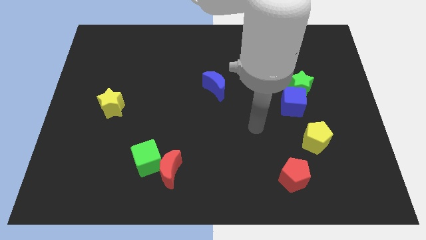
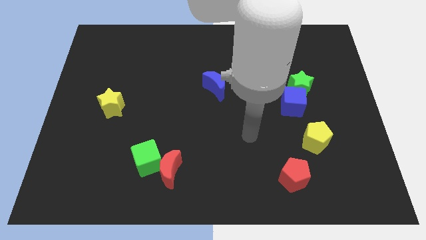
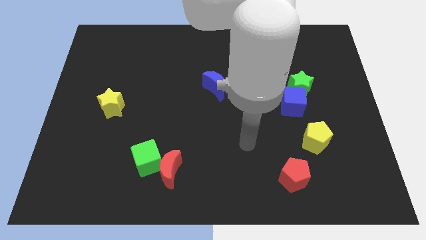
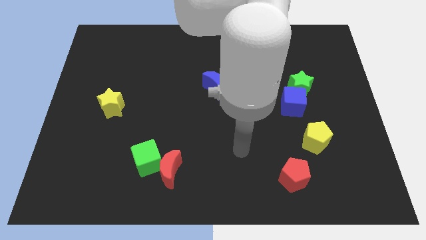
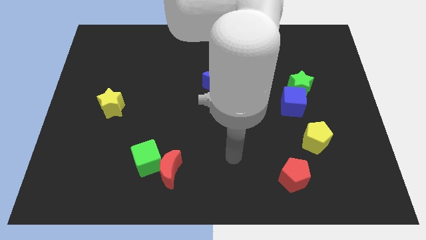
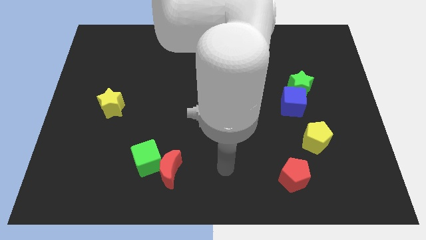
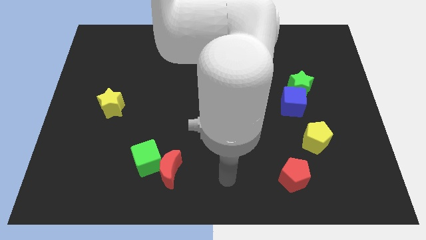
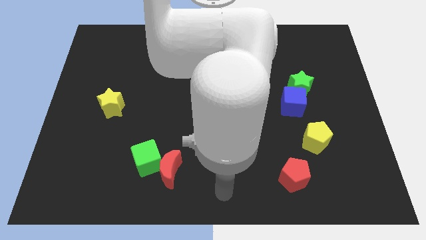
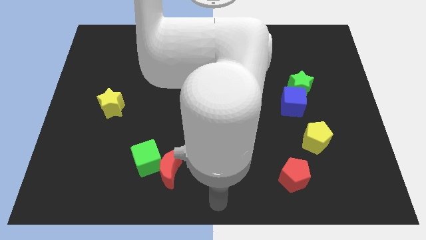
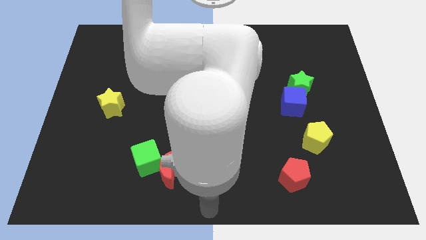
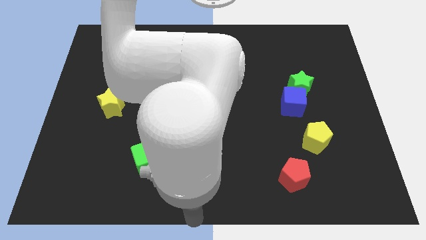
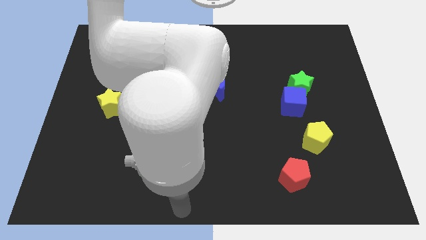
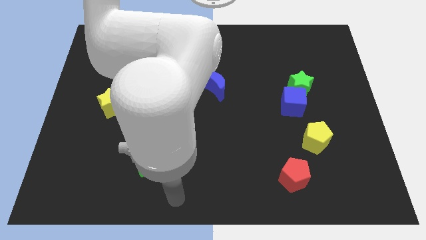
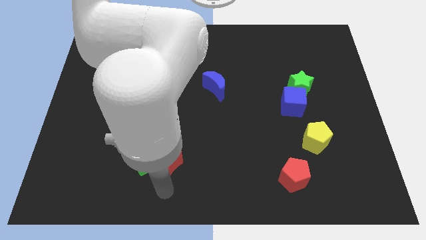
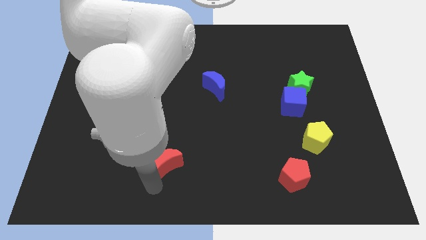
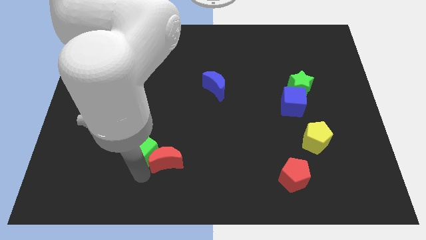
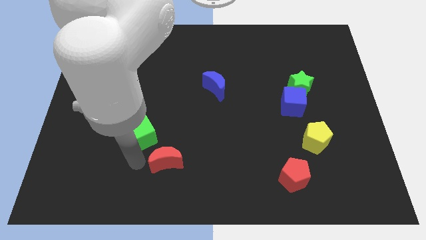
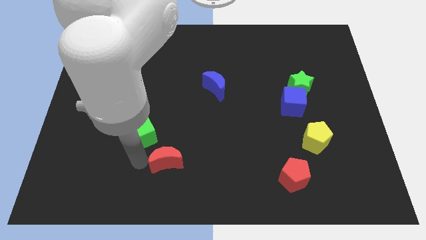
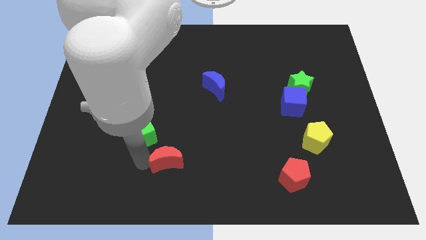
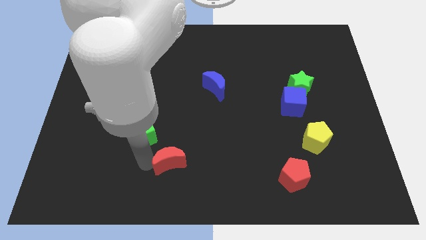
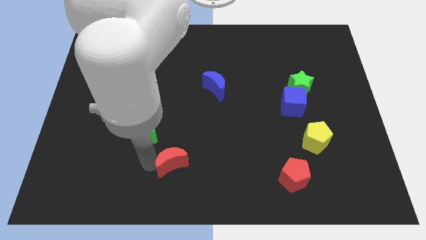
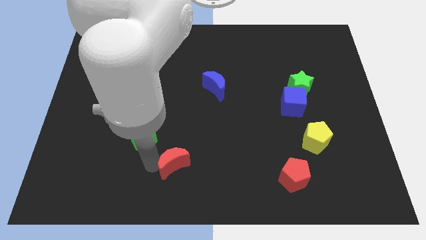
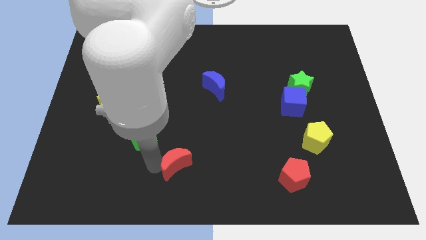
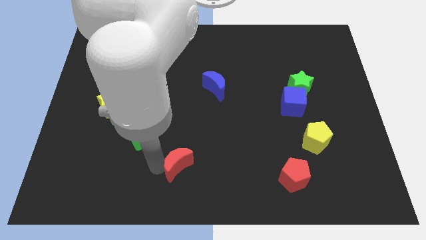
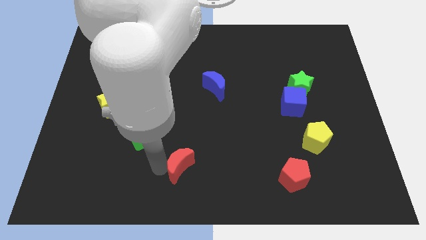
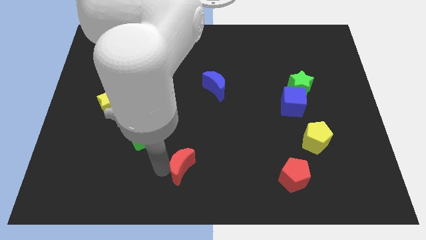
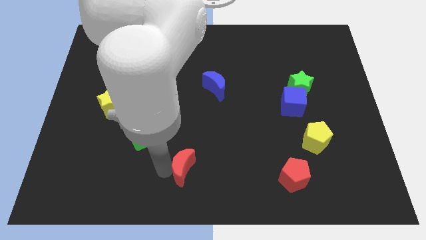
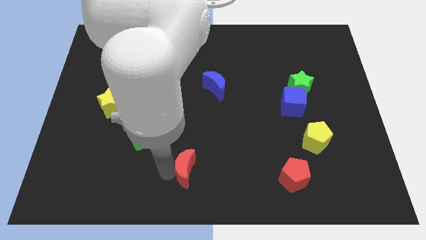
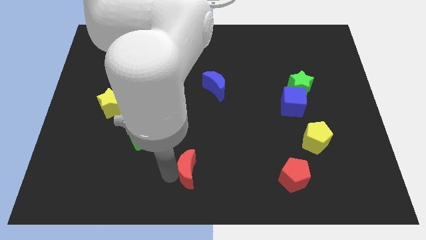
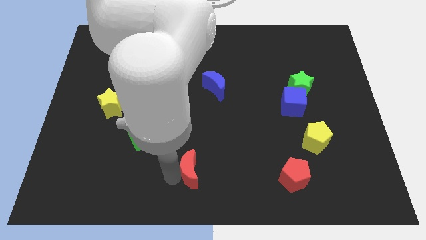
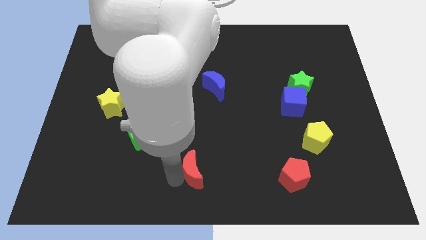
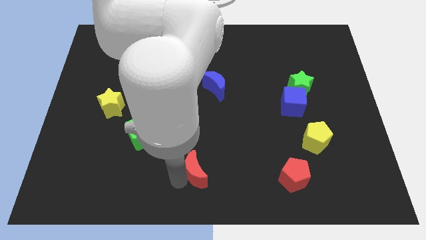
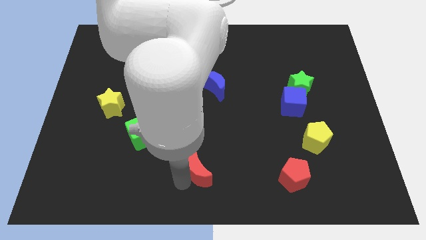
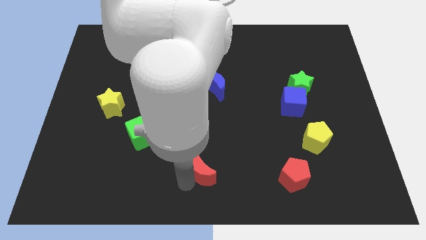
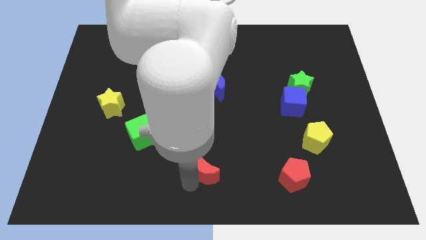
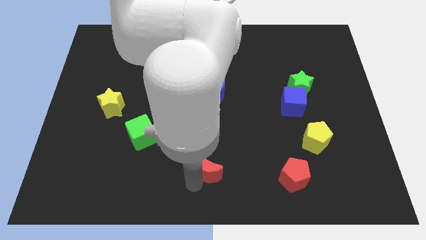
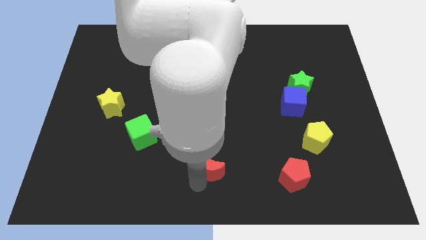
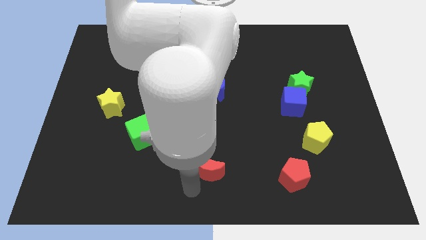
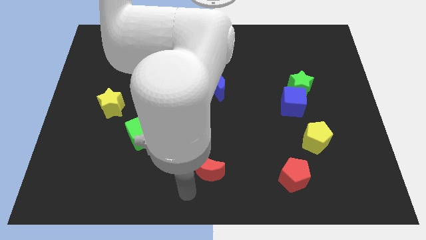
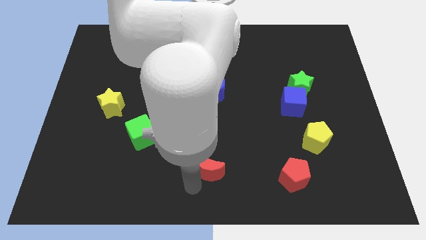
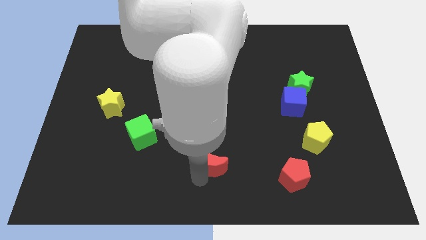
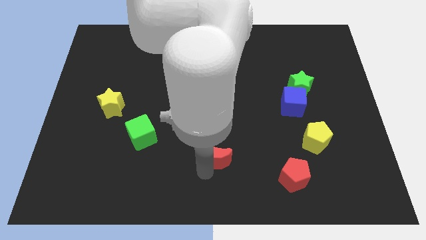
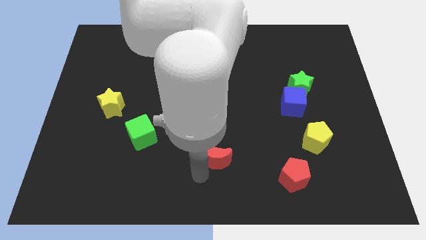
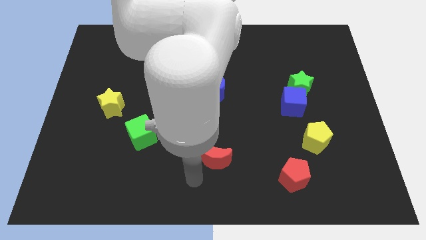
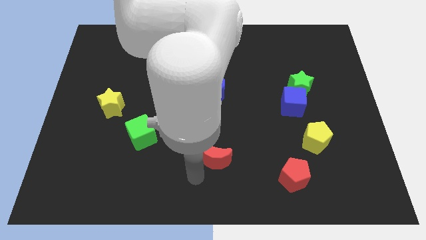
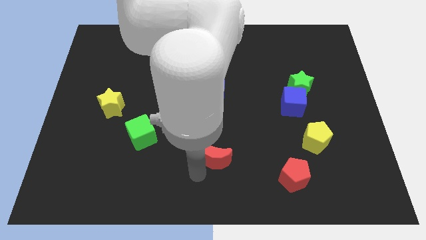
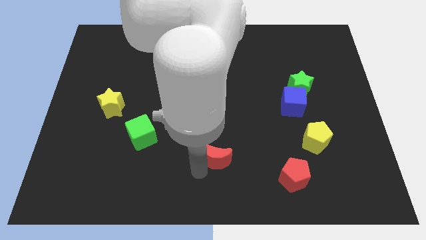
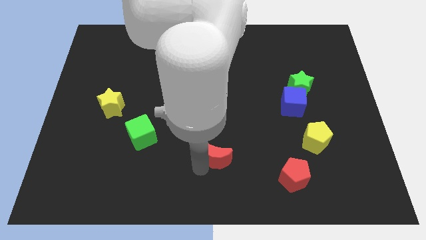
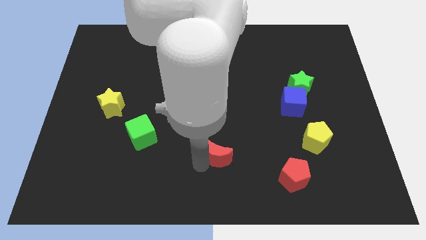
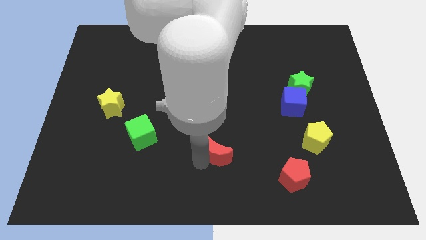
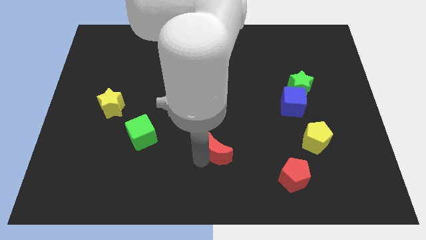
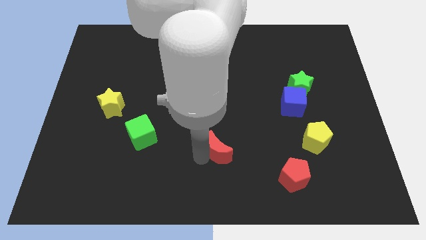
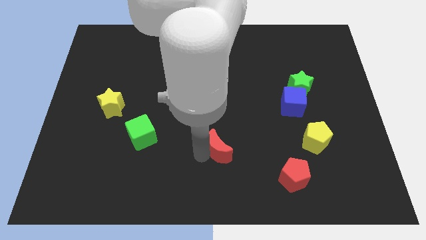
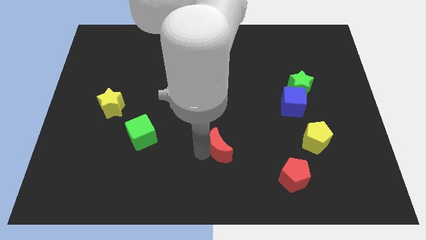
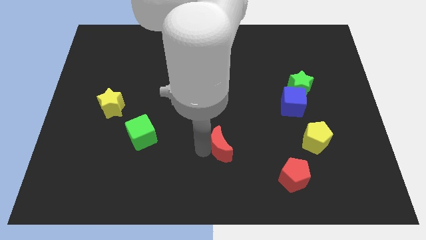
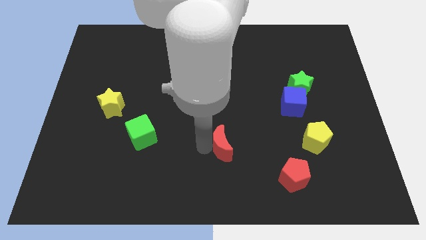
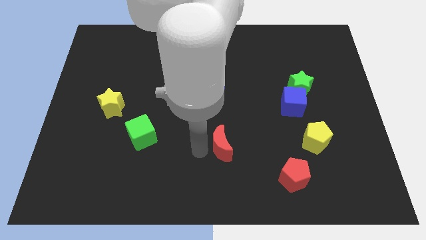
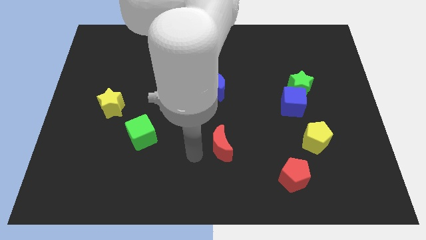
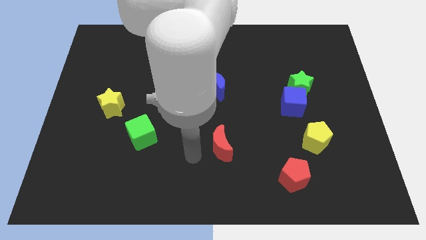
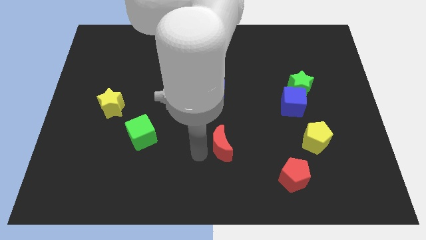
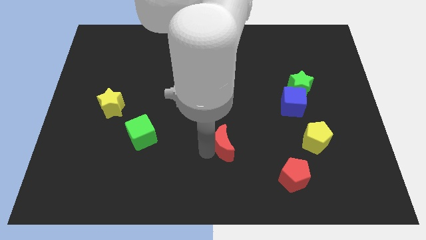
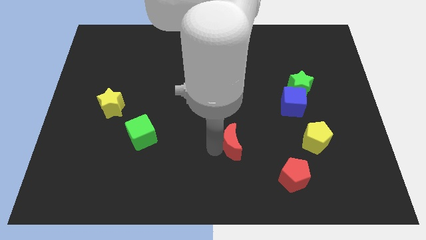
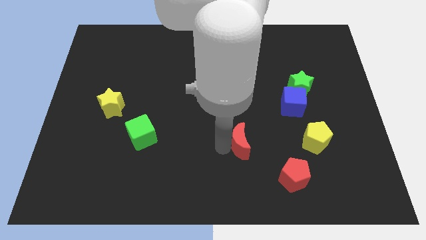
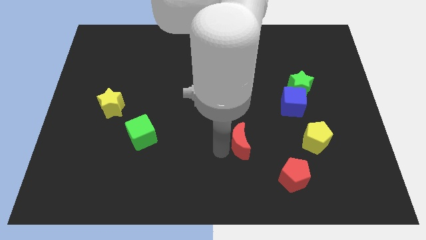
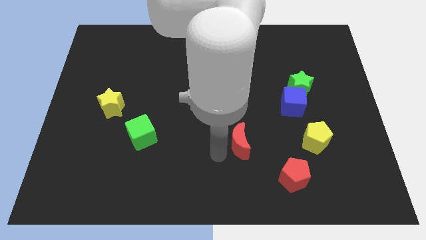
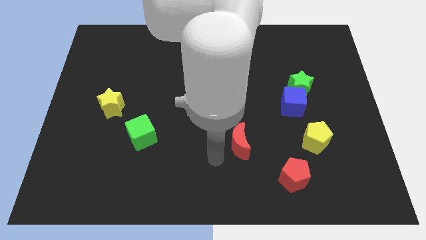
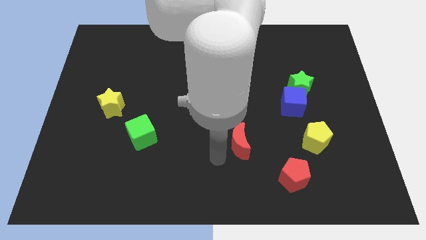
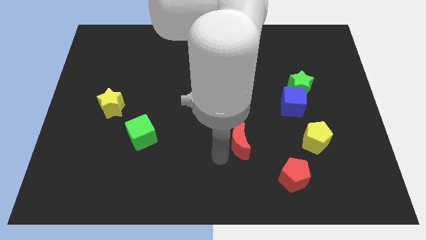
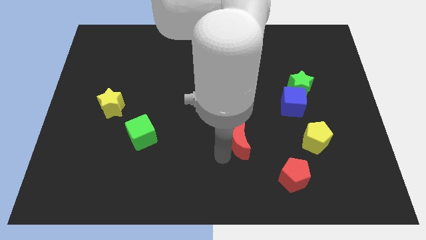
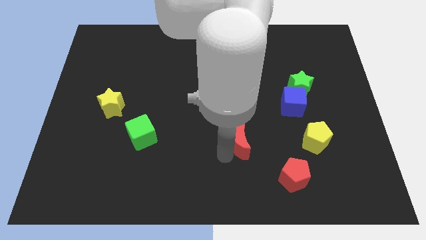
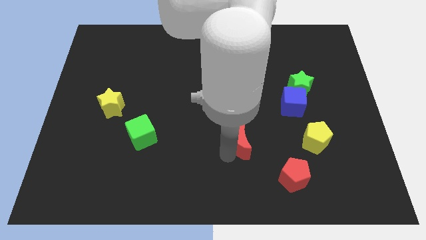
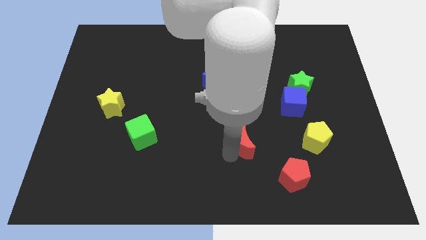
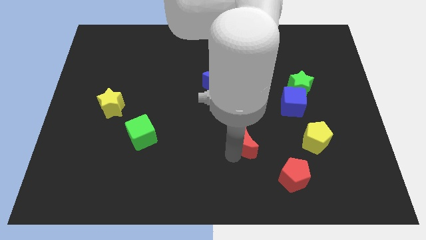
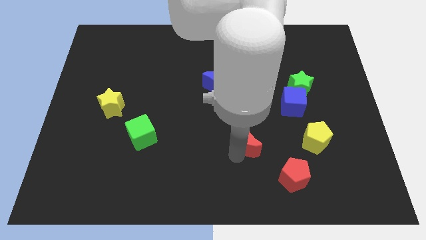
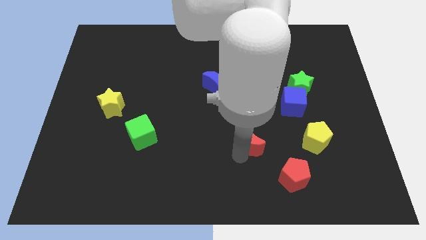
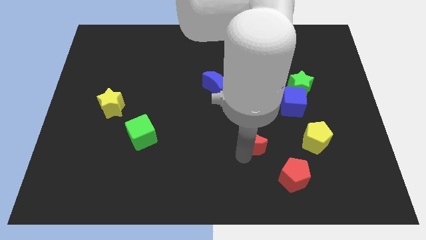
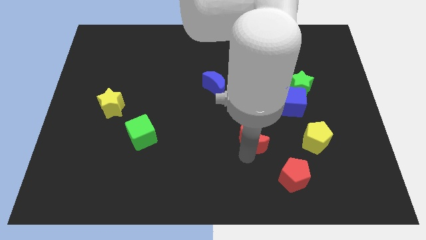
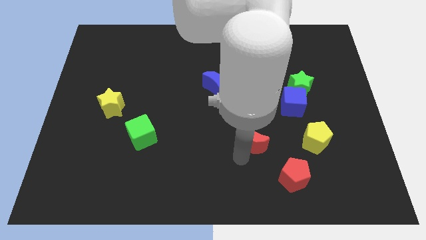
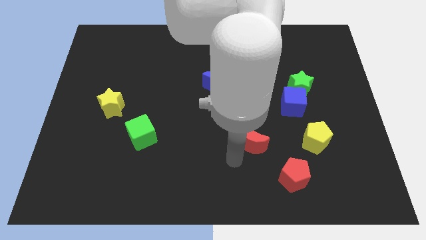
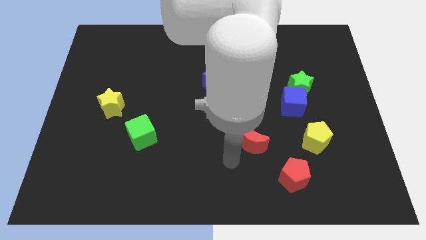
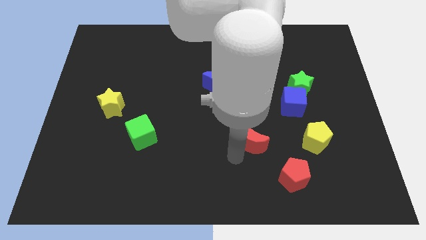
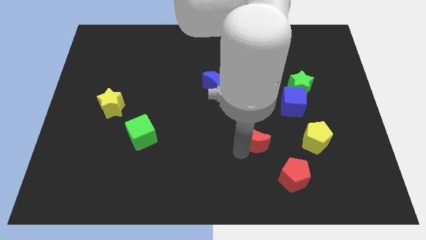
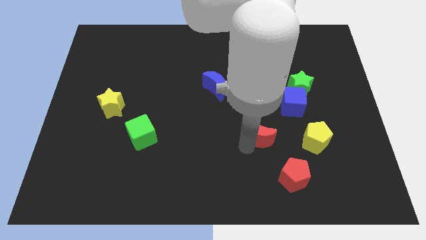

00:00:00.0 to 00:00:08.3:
push the red moon to the bottom left of the blue cube
